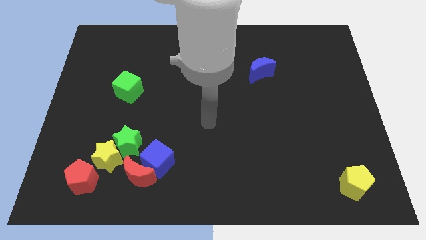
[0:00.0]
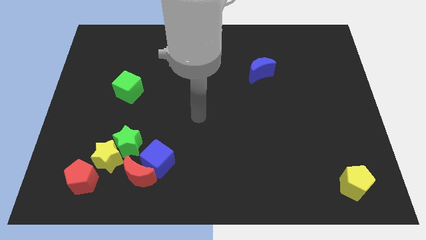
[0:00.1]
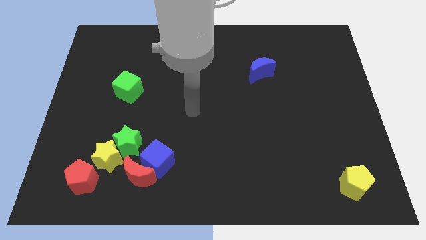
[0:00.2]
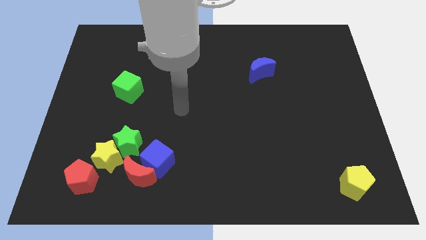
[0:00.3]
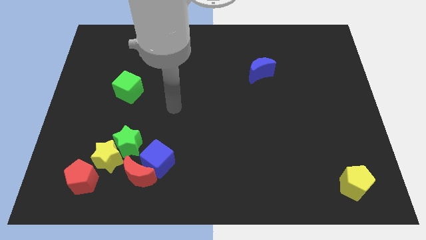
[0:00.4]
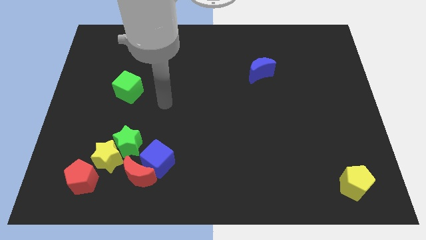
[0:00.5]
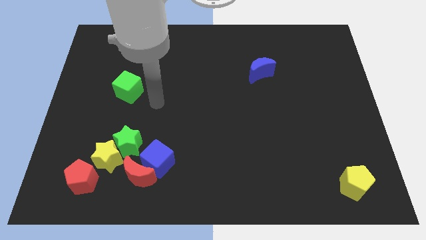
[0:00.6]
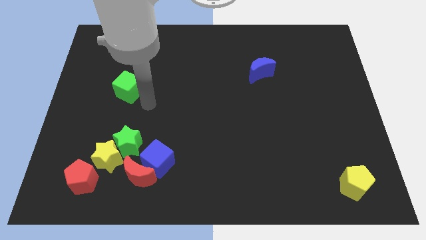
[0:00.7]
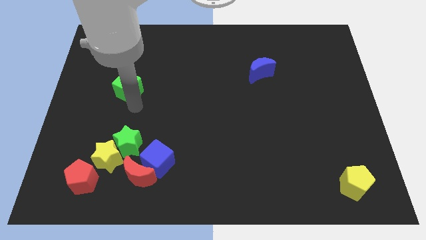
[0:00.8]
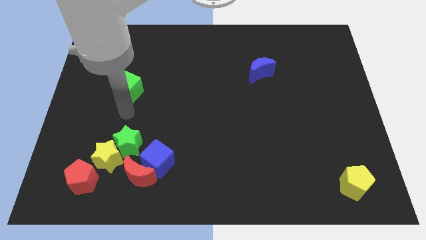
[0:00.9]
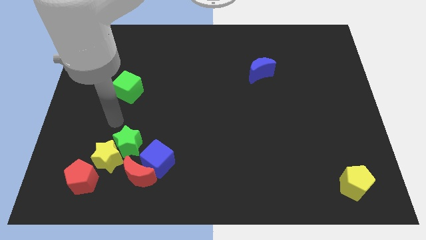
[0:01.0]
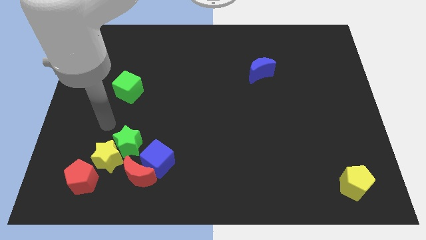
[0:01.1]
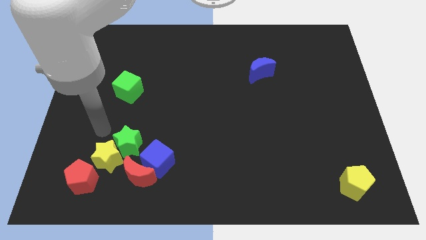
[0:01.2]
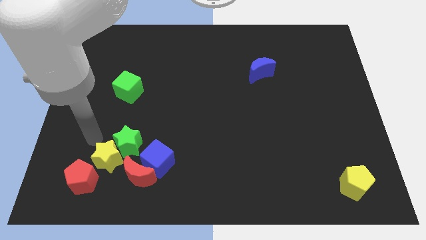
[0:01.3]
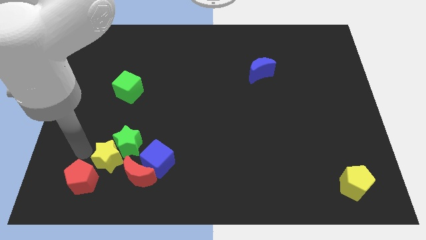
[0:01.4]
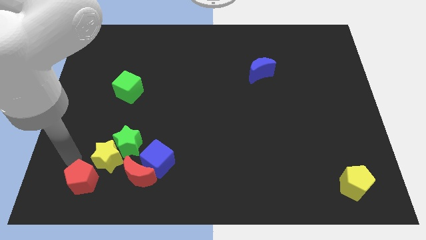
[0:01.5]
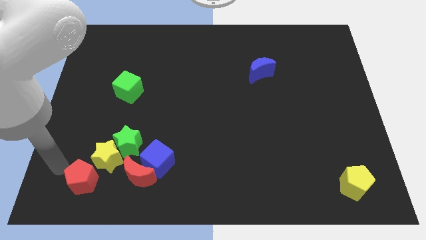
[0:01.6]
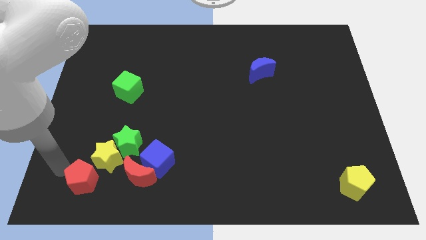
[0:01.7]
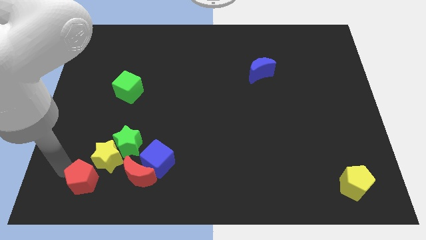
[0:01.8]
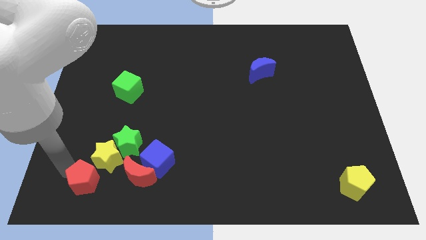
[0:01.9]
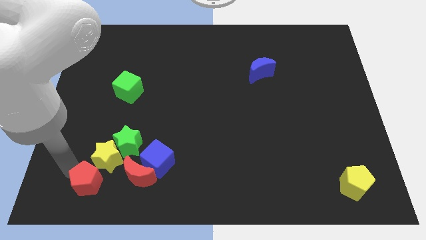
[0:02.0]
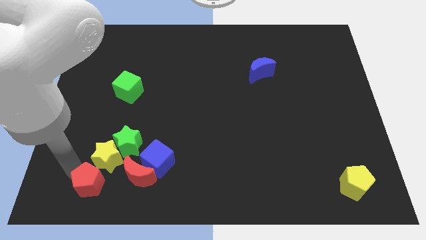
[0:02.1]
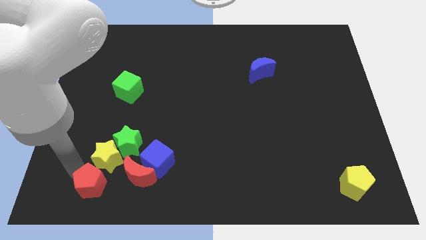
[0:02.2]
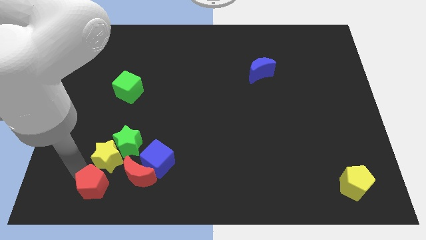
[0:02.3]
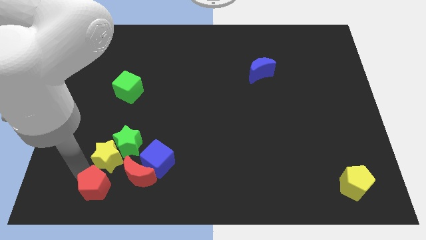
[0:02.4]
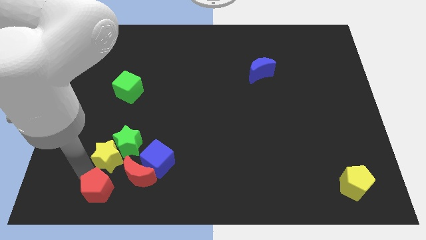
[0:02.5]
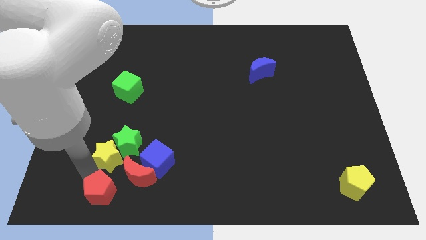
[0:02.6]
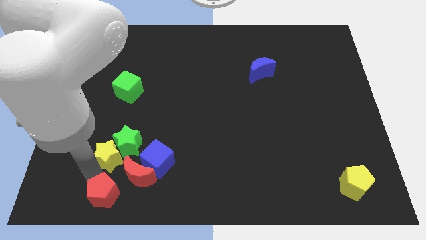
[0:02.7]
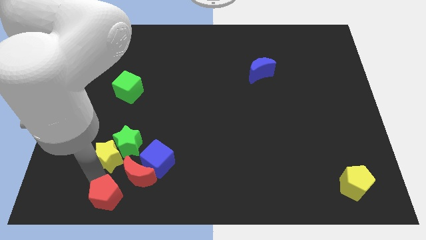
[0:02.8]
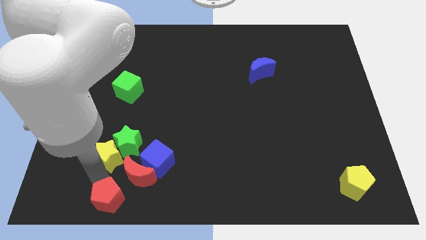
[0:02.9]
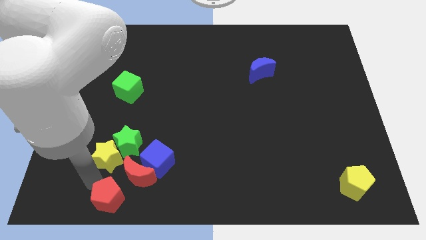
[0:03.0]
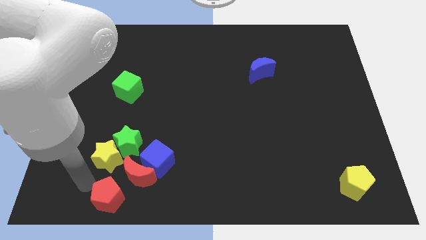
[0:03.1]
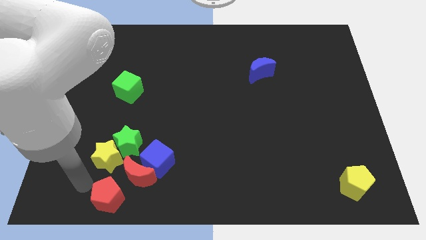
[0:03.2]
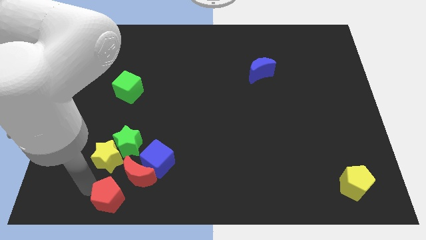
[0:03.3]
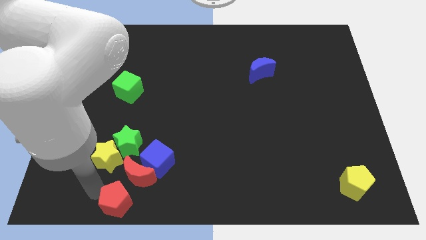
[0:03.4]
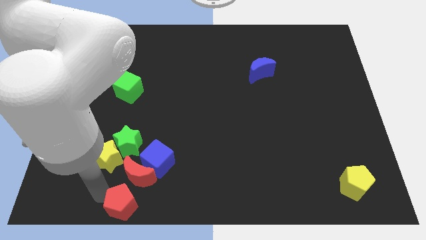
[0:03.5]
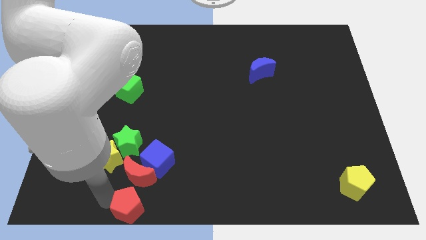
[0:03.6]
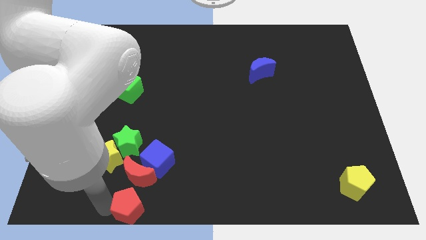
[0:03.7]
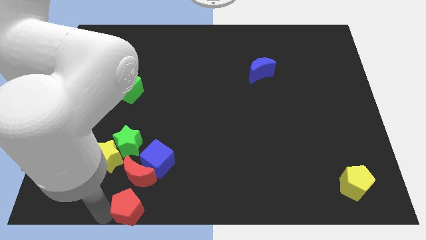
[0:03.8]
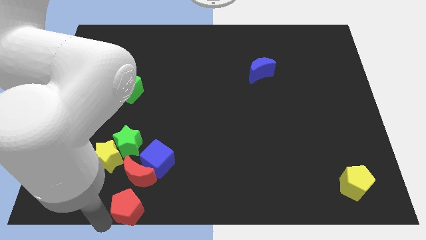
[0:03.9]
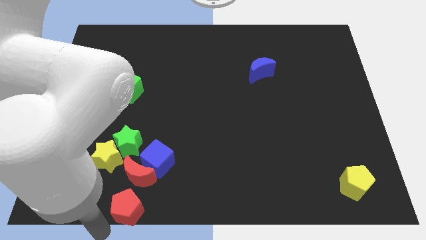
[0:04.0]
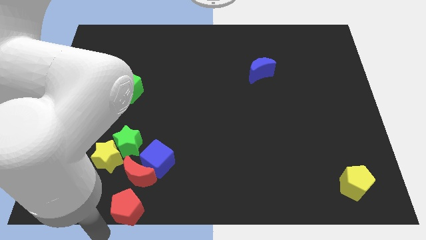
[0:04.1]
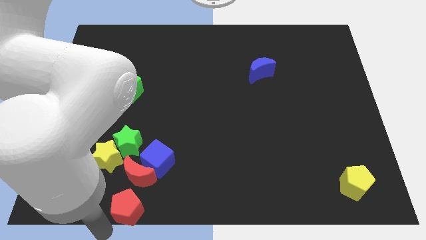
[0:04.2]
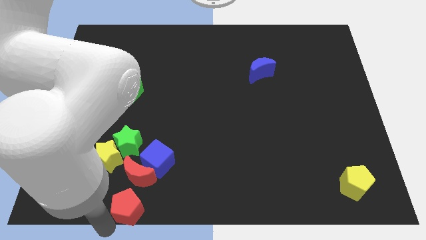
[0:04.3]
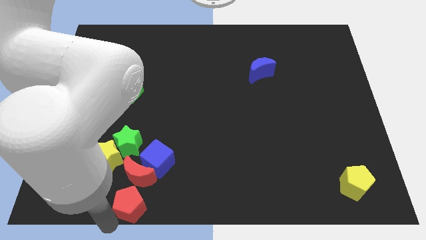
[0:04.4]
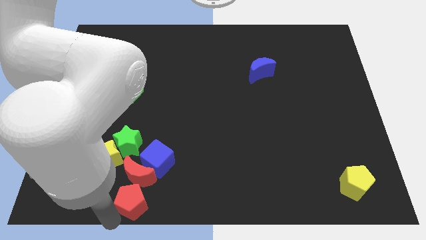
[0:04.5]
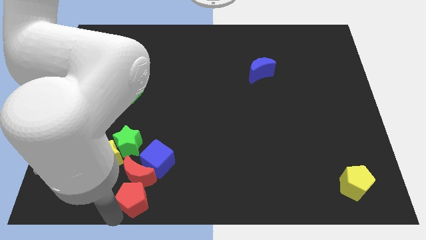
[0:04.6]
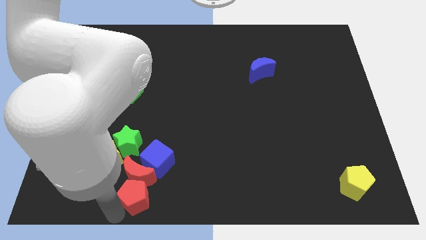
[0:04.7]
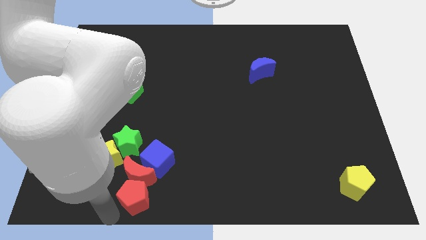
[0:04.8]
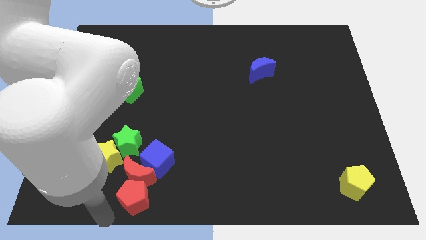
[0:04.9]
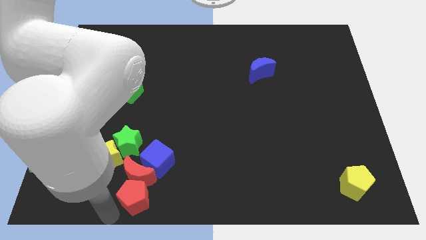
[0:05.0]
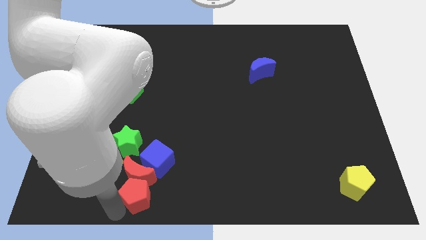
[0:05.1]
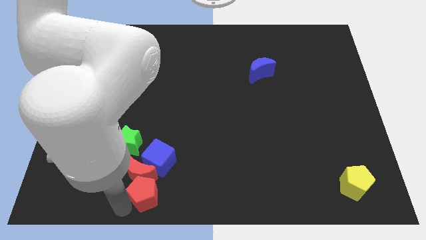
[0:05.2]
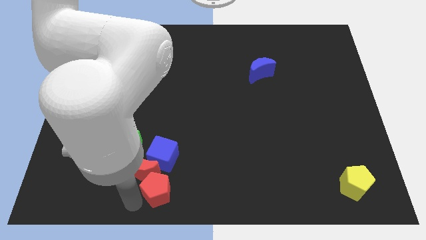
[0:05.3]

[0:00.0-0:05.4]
move the red pentagon just right of the red moon

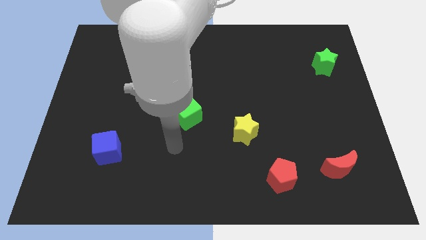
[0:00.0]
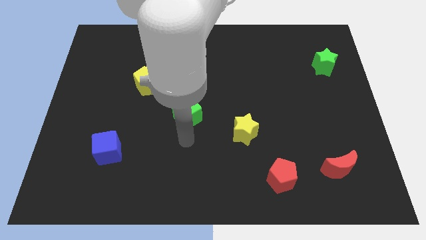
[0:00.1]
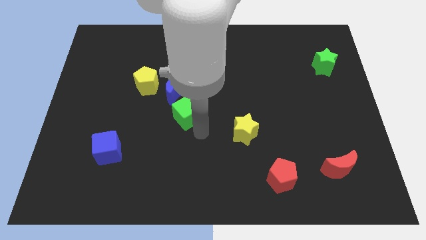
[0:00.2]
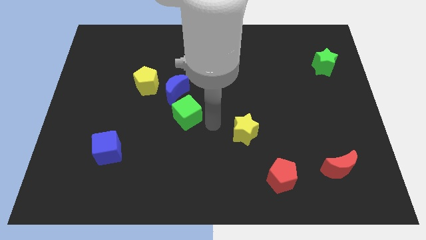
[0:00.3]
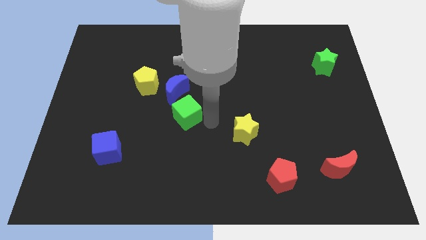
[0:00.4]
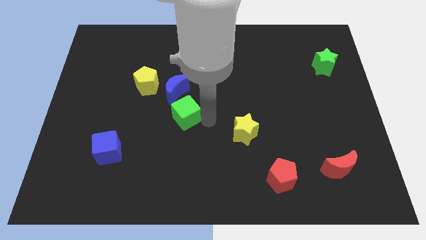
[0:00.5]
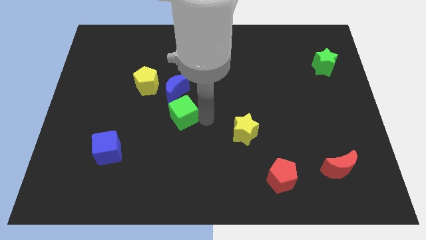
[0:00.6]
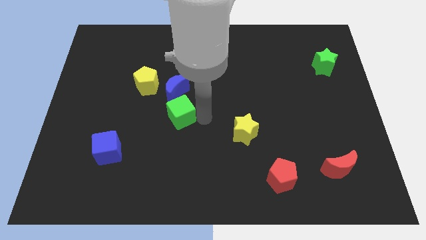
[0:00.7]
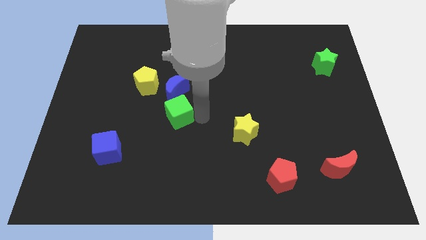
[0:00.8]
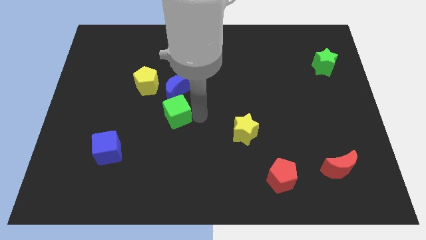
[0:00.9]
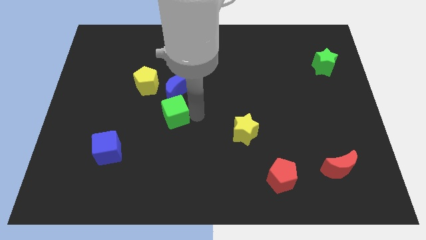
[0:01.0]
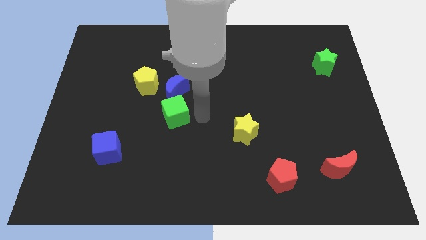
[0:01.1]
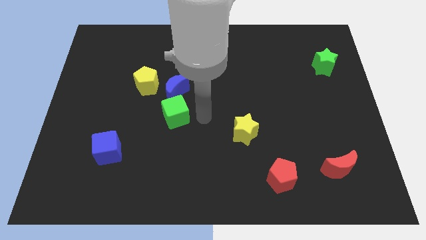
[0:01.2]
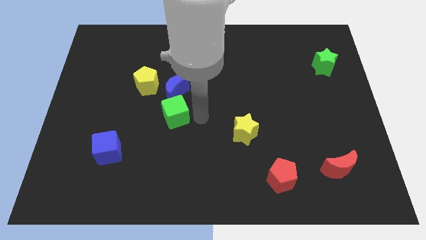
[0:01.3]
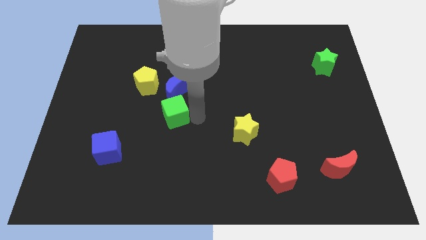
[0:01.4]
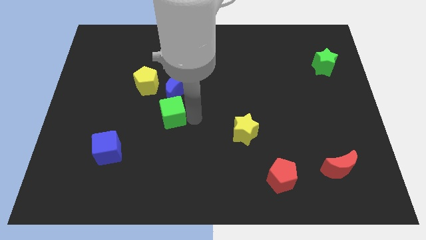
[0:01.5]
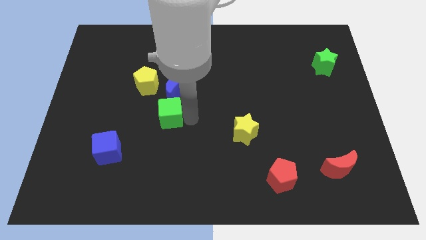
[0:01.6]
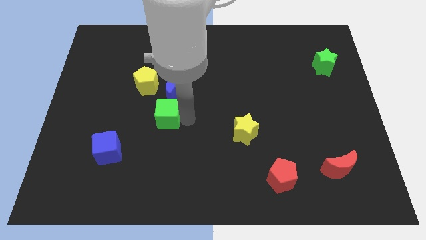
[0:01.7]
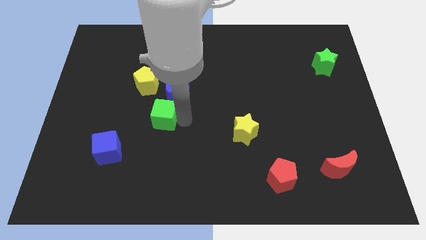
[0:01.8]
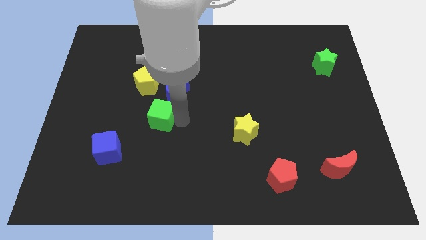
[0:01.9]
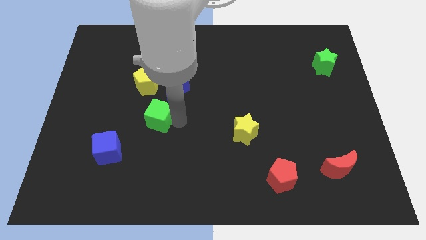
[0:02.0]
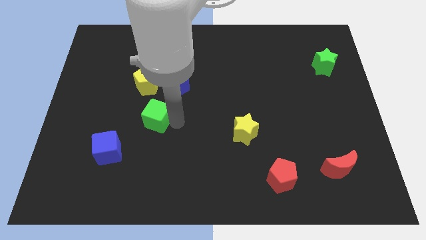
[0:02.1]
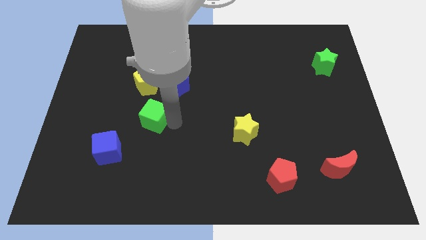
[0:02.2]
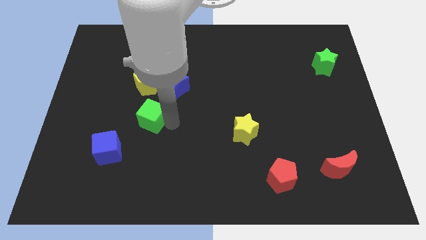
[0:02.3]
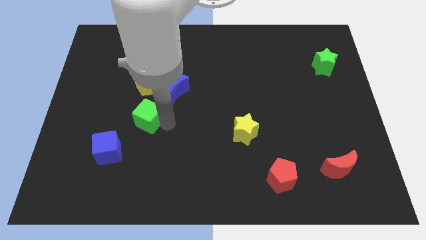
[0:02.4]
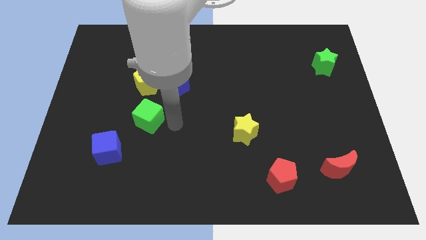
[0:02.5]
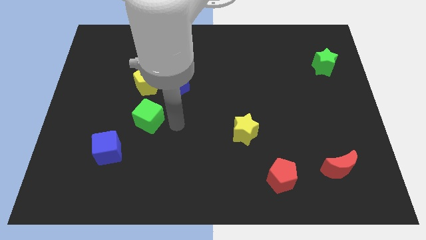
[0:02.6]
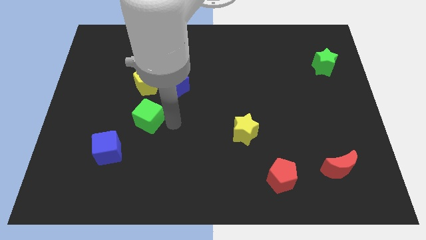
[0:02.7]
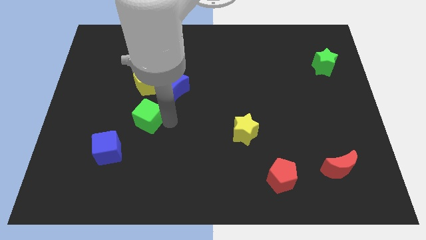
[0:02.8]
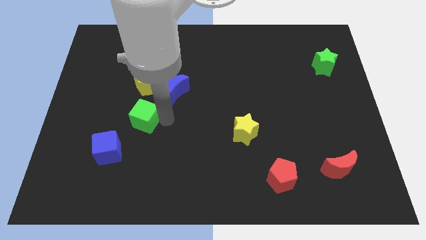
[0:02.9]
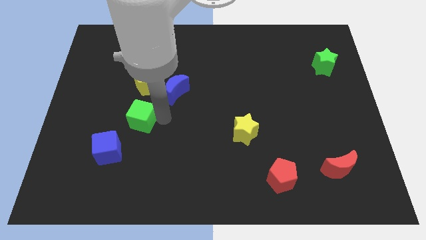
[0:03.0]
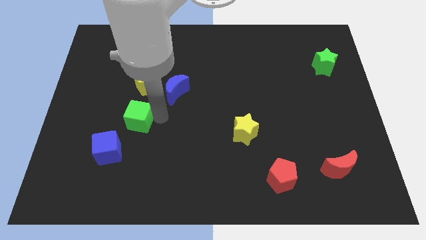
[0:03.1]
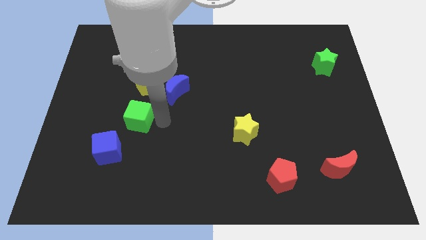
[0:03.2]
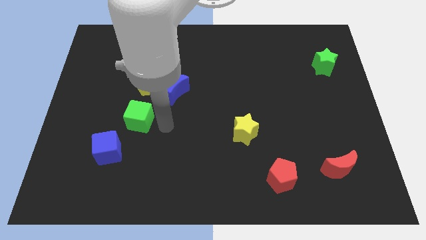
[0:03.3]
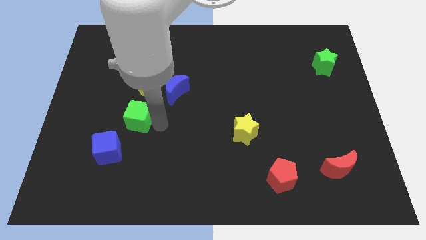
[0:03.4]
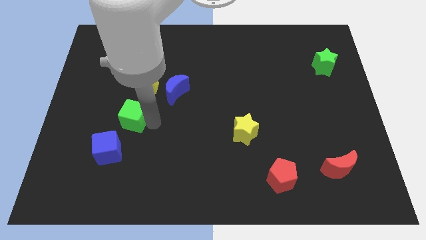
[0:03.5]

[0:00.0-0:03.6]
push the green cube to the top of the blue cube
